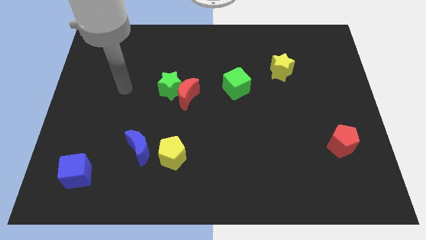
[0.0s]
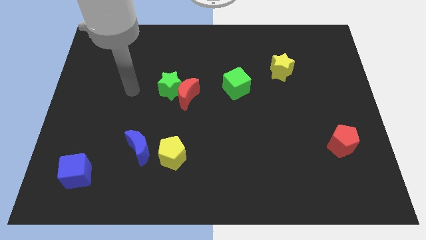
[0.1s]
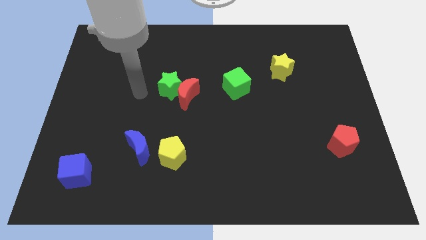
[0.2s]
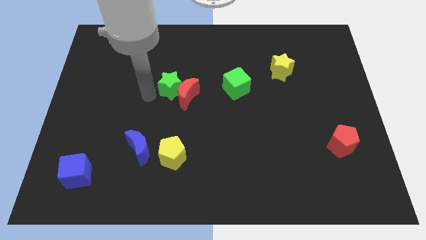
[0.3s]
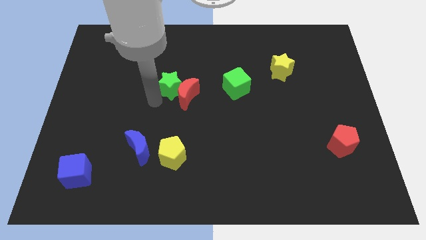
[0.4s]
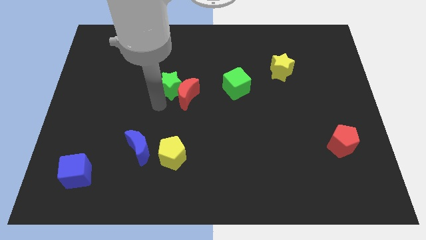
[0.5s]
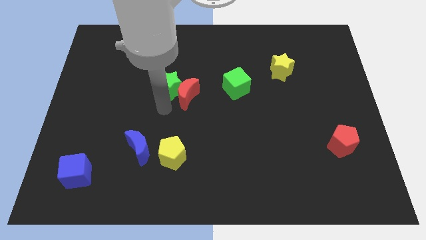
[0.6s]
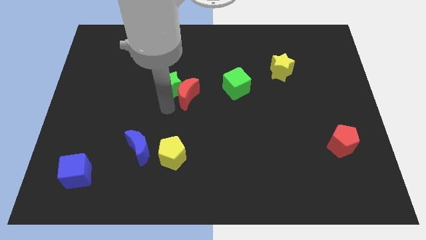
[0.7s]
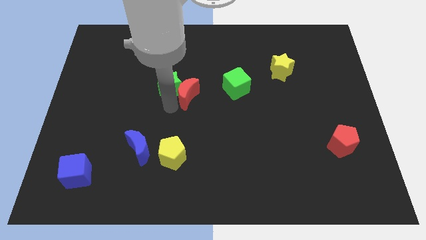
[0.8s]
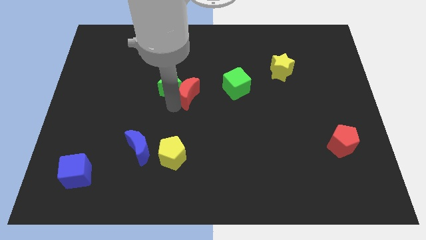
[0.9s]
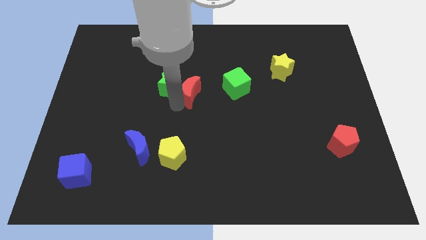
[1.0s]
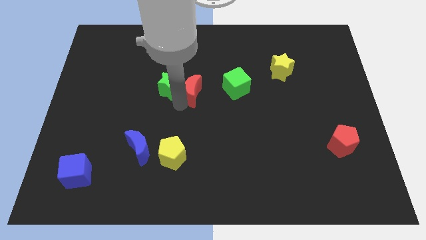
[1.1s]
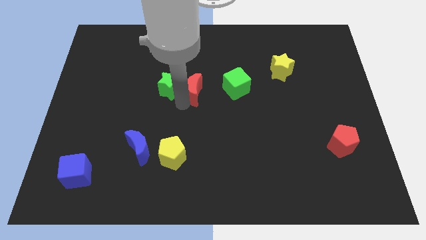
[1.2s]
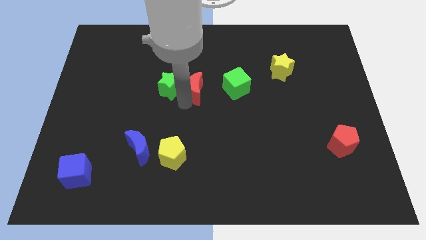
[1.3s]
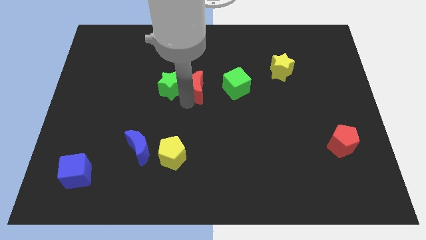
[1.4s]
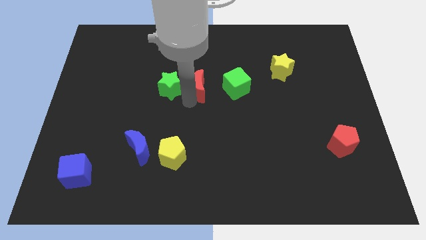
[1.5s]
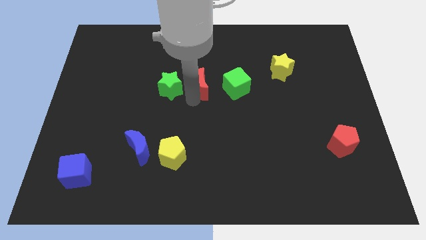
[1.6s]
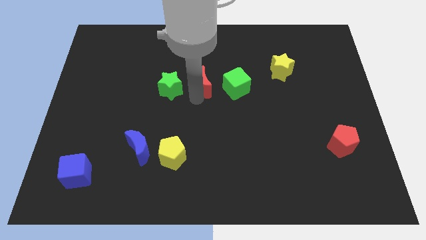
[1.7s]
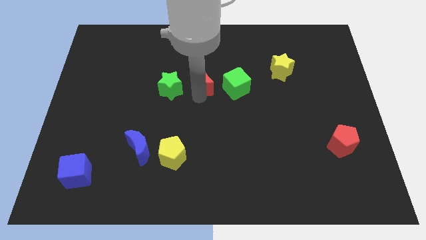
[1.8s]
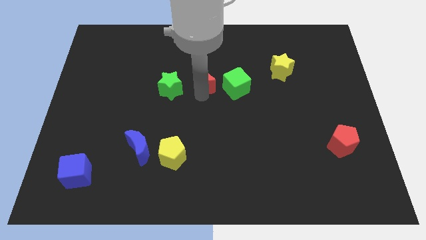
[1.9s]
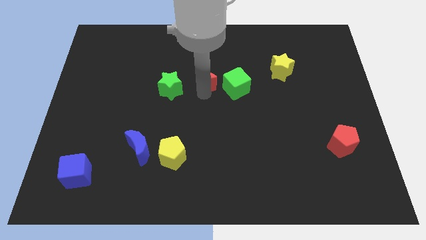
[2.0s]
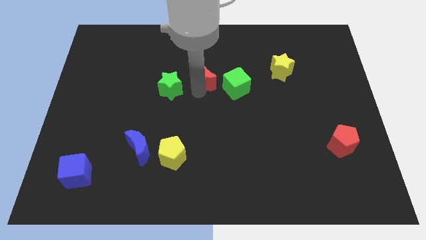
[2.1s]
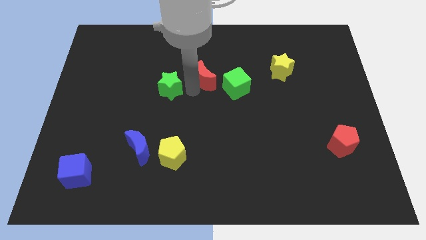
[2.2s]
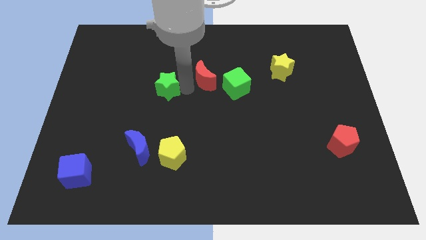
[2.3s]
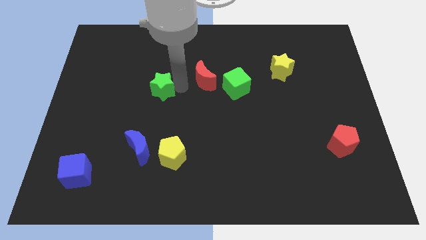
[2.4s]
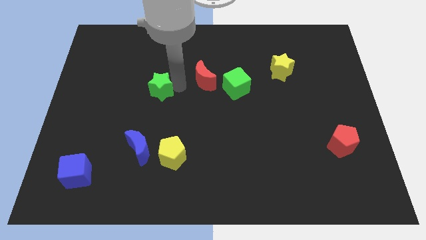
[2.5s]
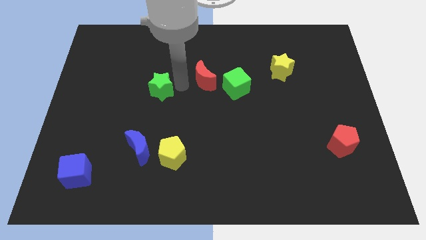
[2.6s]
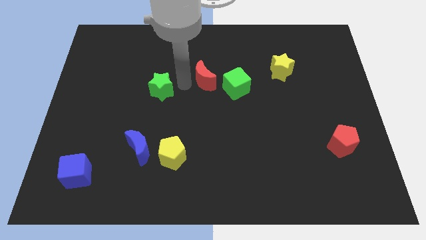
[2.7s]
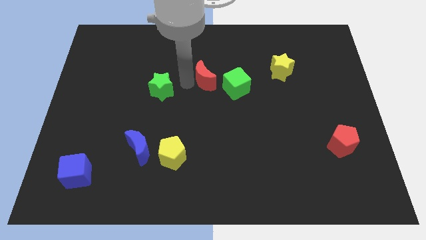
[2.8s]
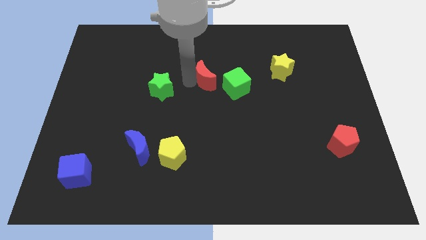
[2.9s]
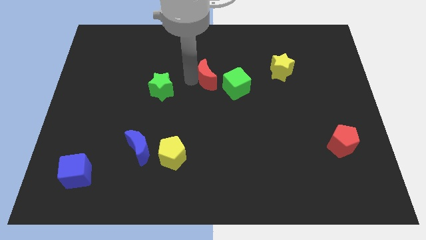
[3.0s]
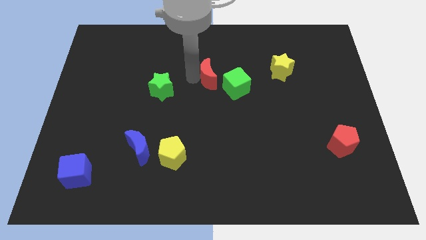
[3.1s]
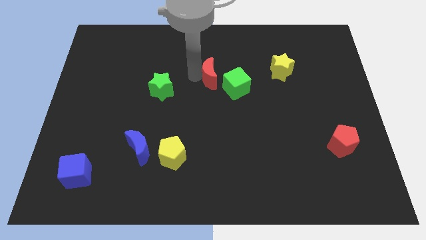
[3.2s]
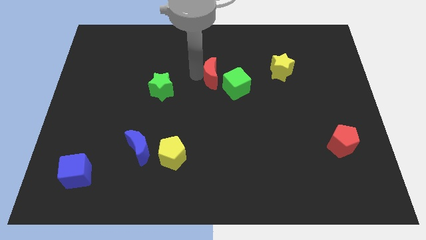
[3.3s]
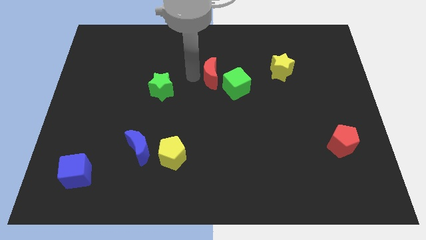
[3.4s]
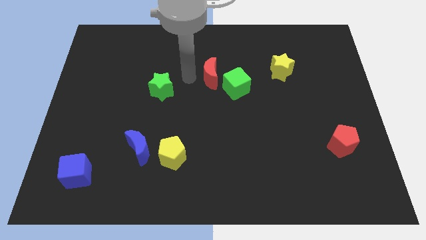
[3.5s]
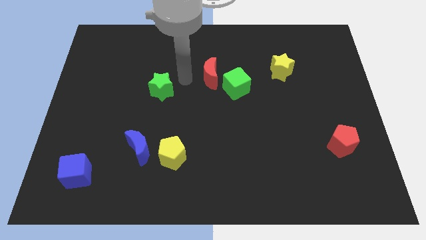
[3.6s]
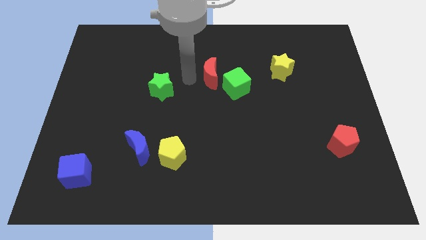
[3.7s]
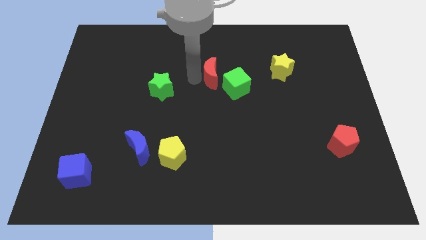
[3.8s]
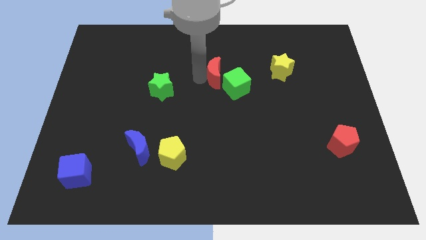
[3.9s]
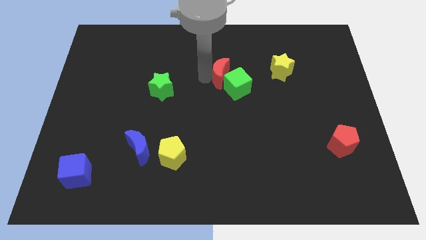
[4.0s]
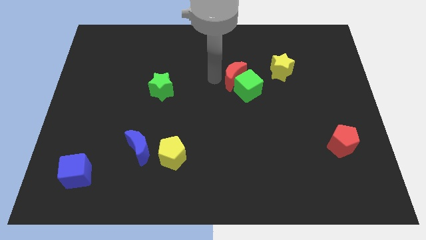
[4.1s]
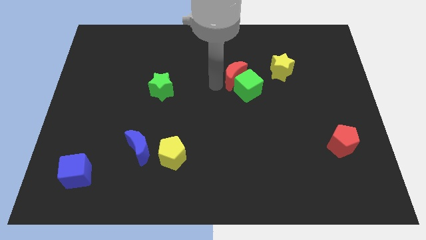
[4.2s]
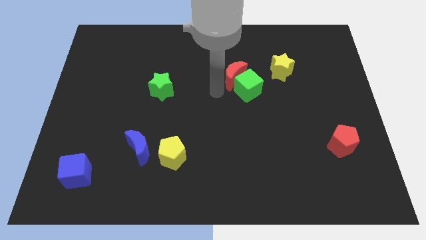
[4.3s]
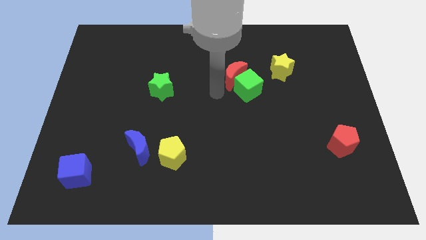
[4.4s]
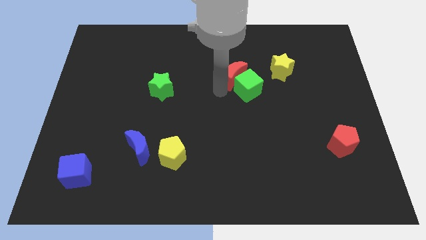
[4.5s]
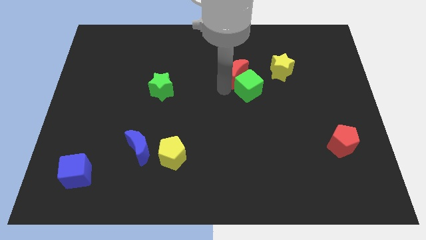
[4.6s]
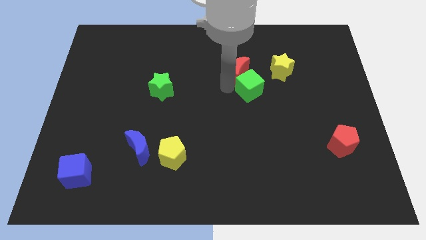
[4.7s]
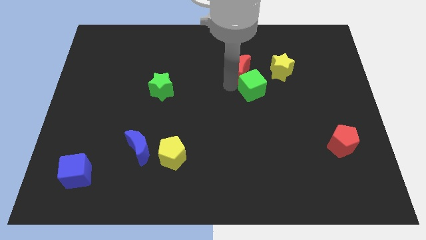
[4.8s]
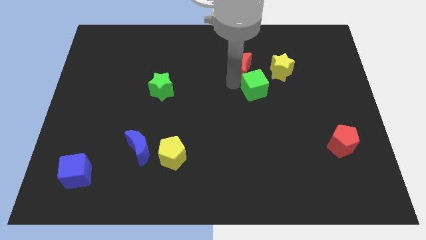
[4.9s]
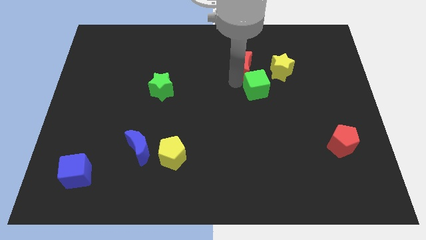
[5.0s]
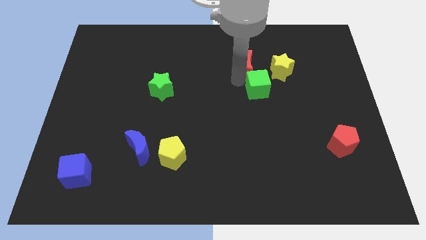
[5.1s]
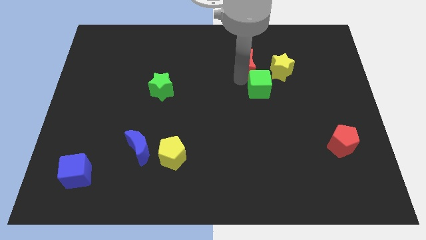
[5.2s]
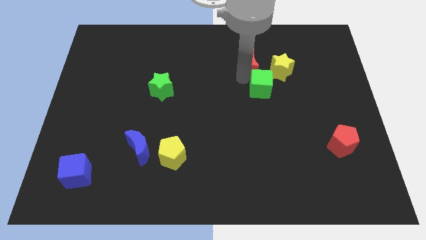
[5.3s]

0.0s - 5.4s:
put the red moon diagonally up and to the left of the yellow star

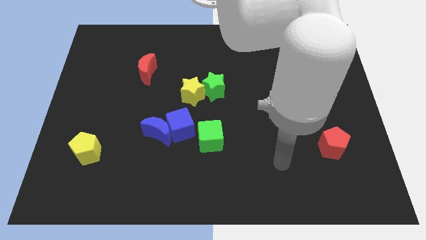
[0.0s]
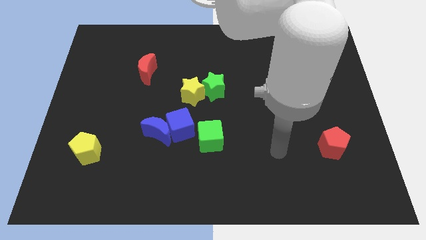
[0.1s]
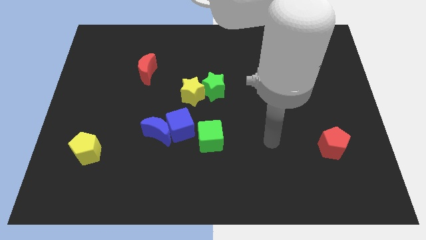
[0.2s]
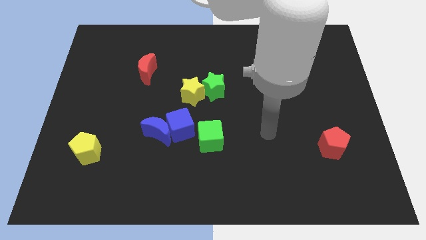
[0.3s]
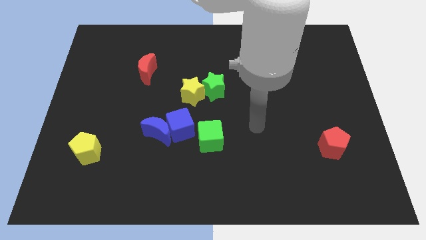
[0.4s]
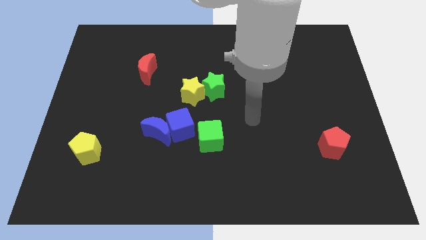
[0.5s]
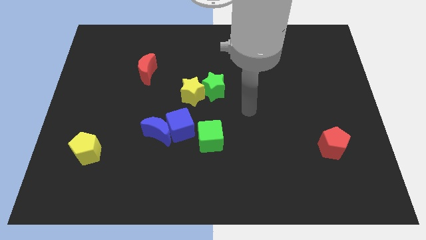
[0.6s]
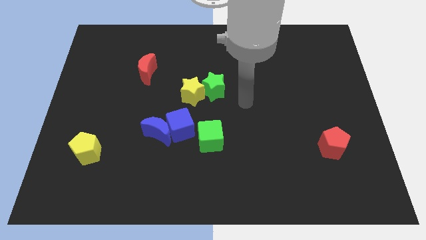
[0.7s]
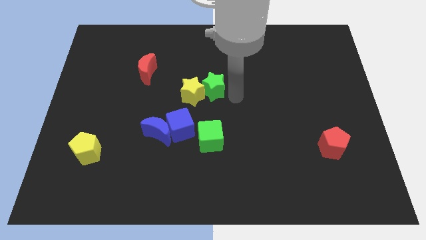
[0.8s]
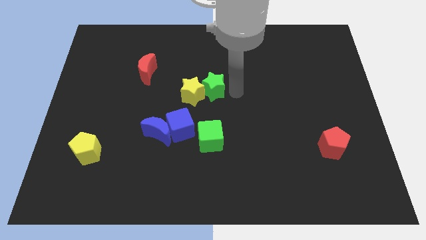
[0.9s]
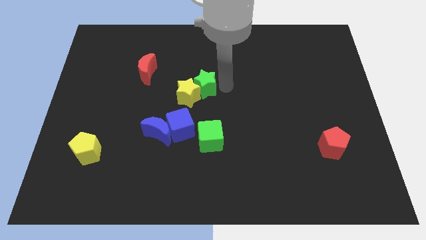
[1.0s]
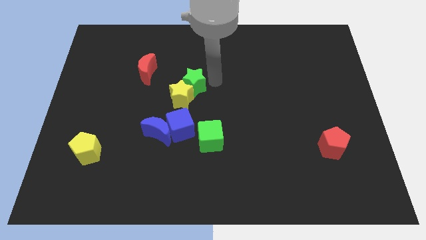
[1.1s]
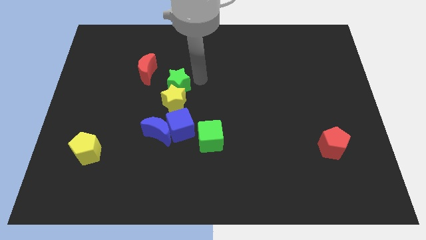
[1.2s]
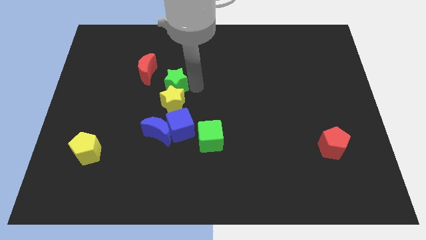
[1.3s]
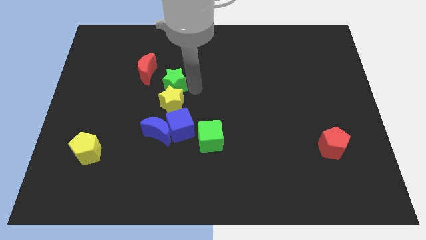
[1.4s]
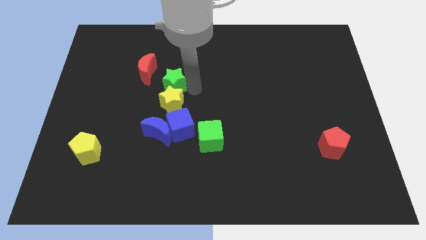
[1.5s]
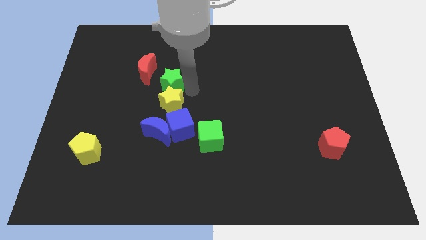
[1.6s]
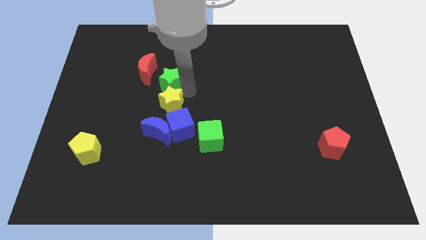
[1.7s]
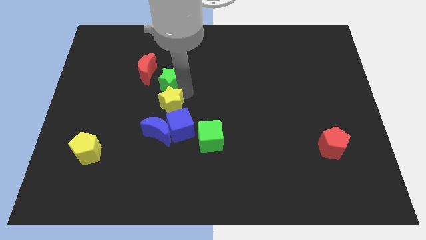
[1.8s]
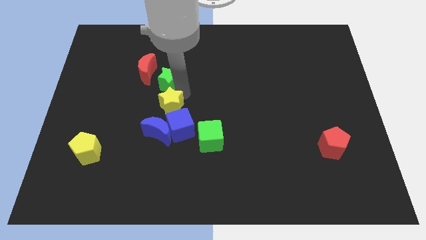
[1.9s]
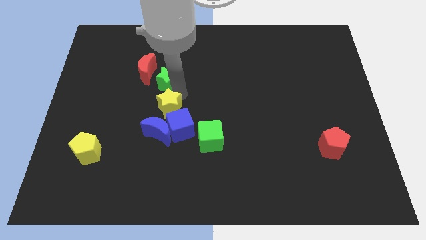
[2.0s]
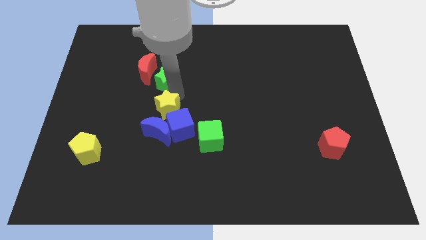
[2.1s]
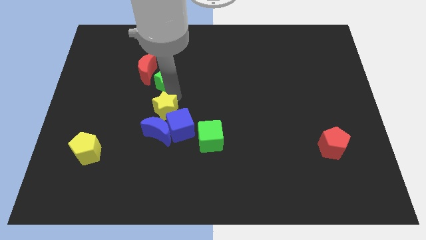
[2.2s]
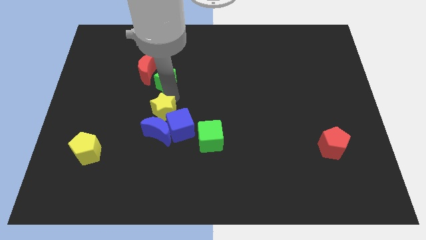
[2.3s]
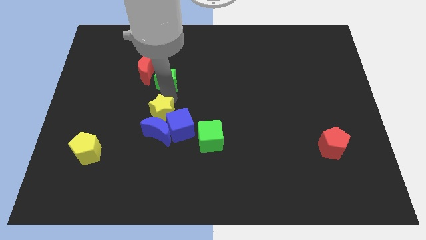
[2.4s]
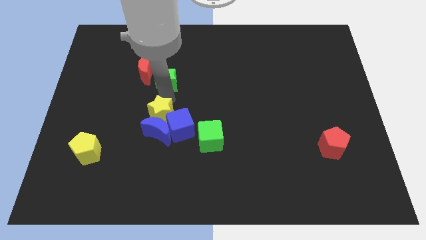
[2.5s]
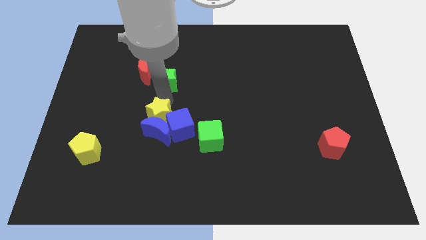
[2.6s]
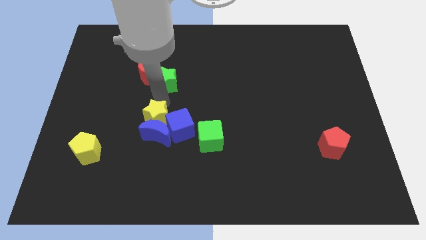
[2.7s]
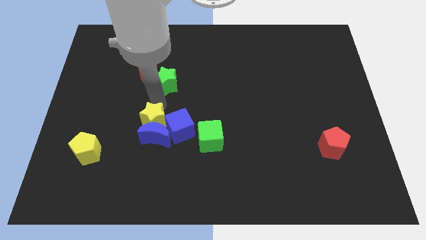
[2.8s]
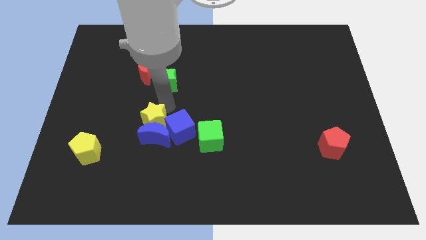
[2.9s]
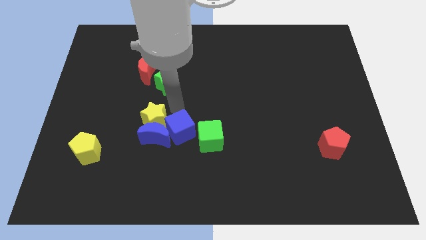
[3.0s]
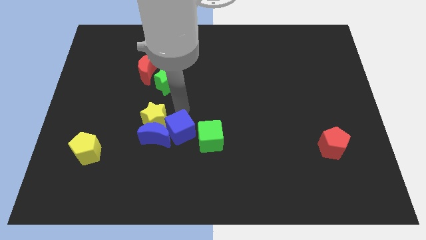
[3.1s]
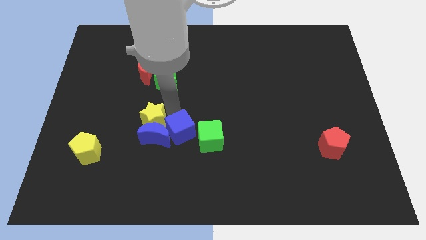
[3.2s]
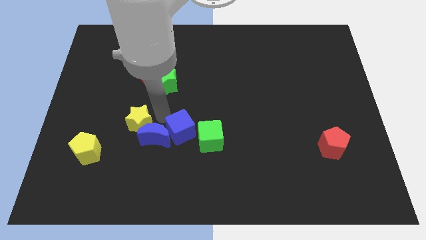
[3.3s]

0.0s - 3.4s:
push the yellow star left of the blue moon
